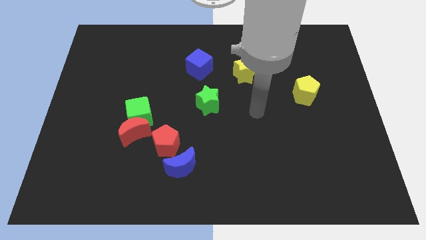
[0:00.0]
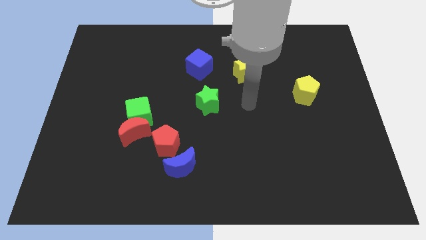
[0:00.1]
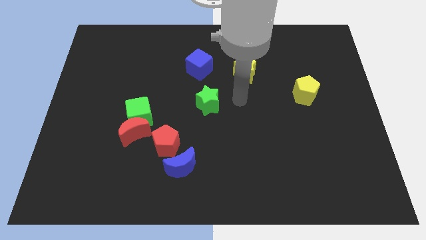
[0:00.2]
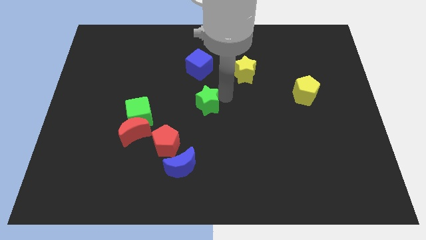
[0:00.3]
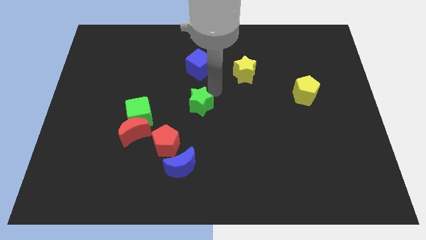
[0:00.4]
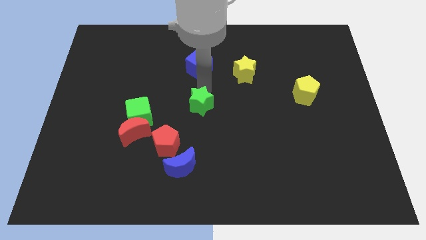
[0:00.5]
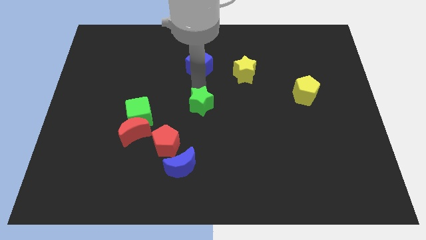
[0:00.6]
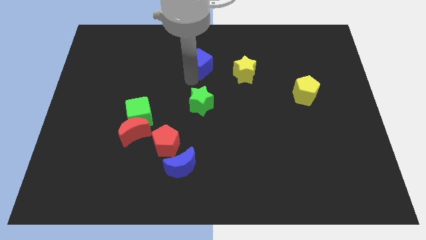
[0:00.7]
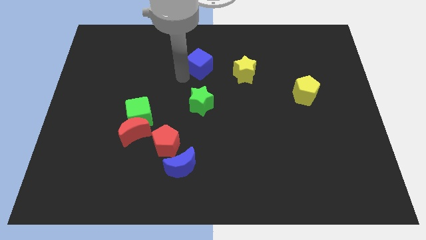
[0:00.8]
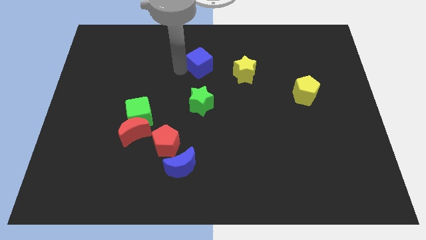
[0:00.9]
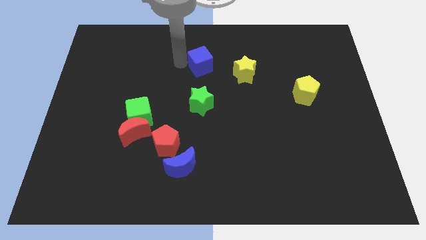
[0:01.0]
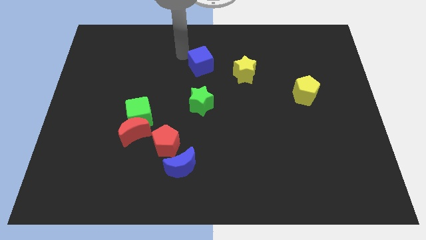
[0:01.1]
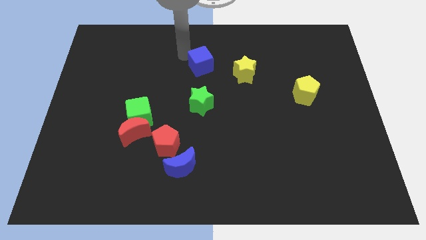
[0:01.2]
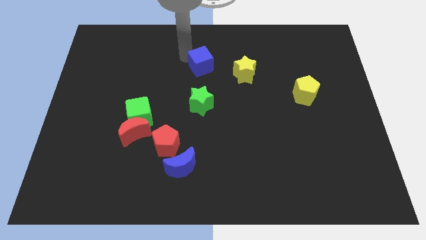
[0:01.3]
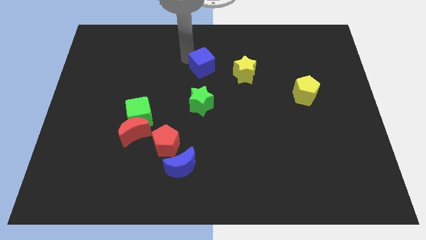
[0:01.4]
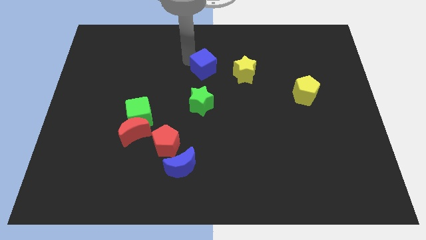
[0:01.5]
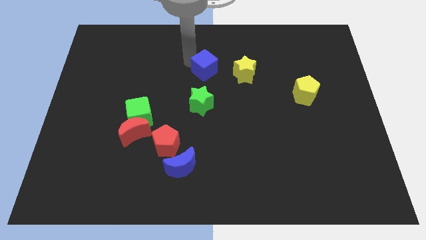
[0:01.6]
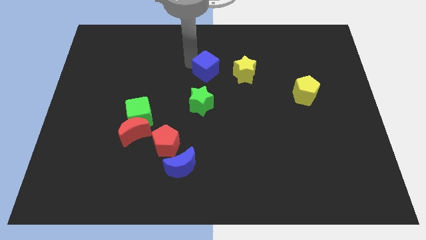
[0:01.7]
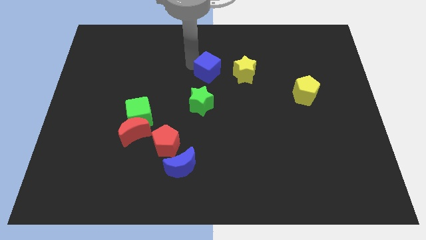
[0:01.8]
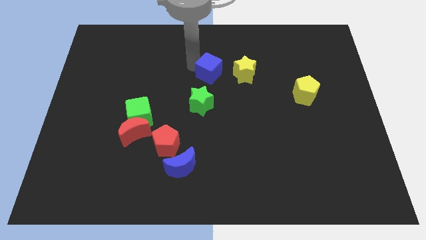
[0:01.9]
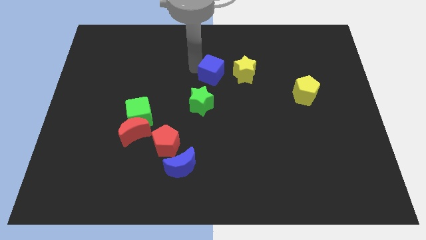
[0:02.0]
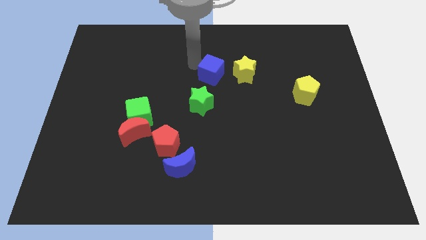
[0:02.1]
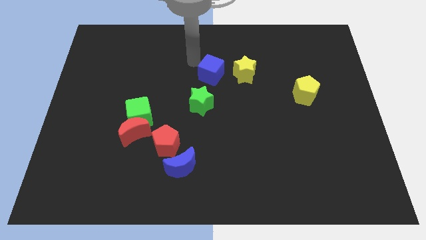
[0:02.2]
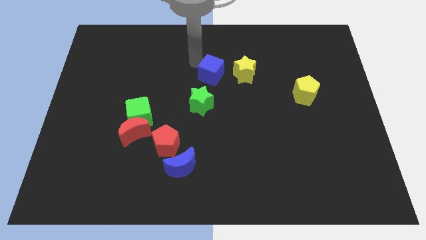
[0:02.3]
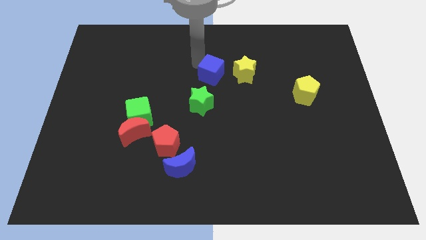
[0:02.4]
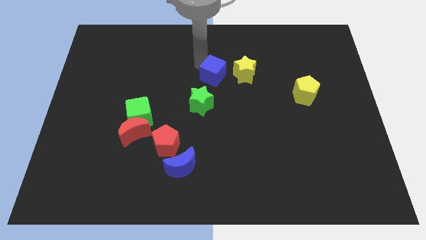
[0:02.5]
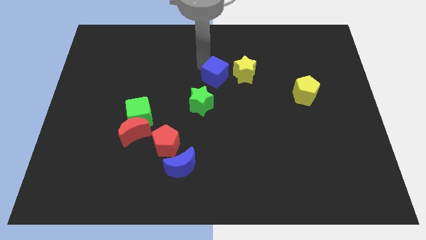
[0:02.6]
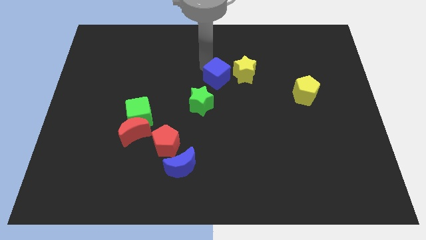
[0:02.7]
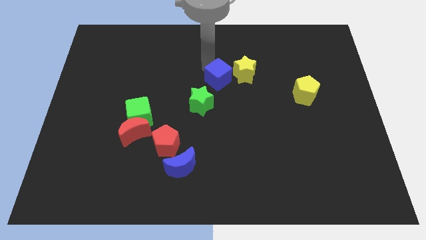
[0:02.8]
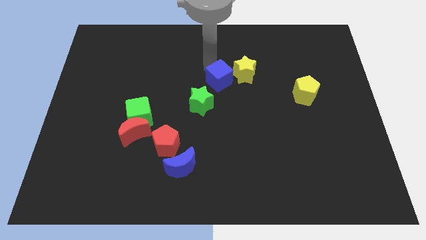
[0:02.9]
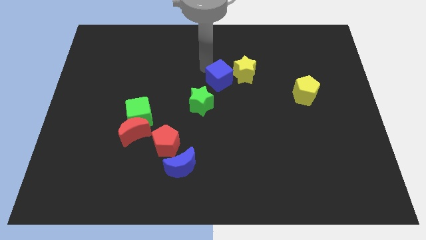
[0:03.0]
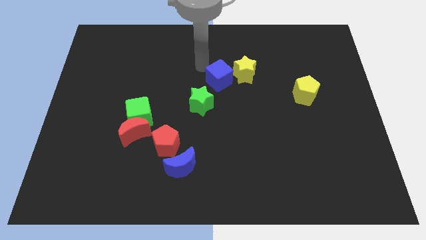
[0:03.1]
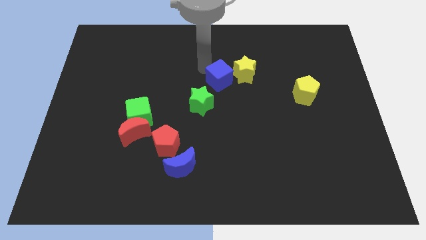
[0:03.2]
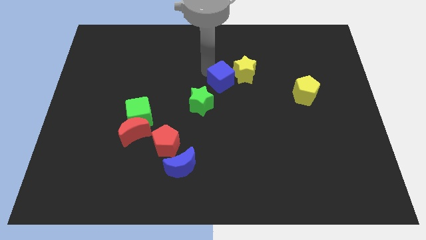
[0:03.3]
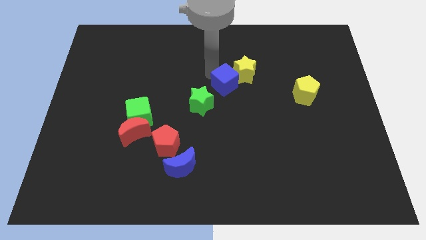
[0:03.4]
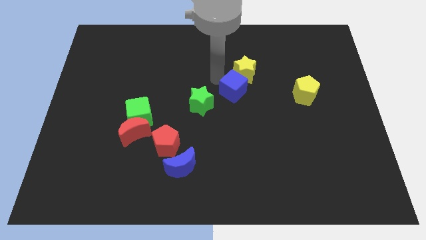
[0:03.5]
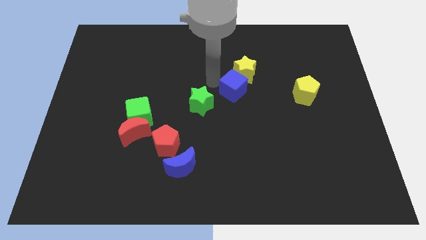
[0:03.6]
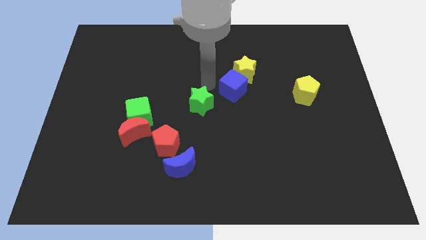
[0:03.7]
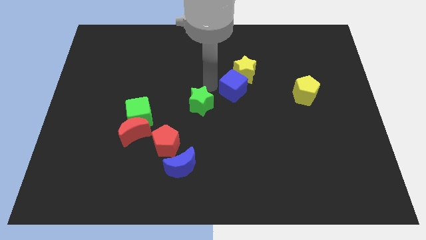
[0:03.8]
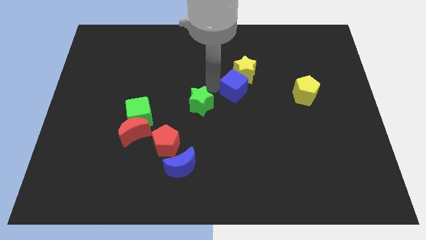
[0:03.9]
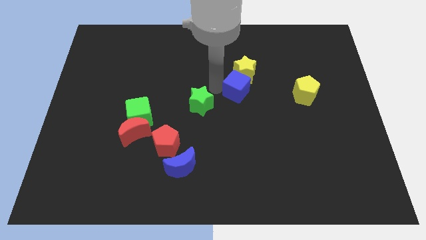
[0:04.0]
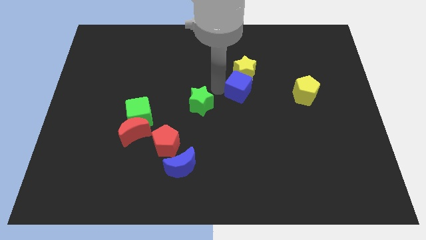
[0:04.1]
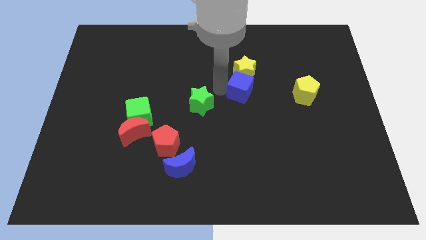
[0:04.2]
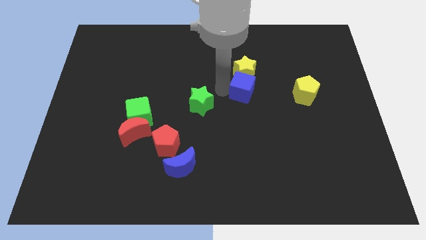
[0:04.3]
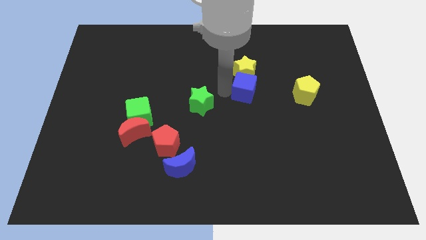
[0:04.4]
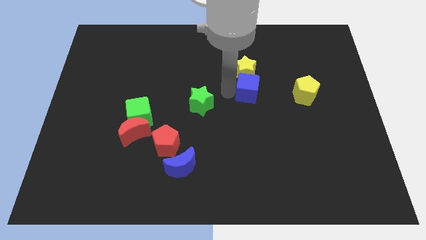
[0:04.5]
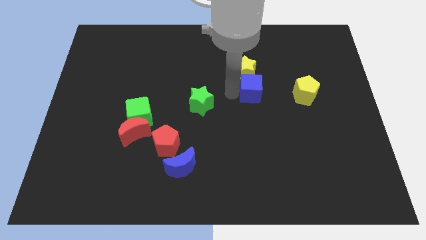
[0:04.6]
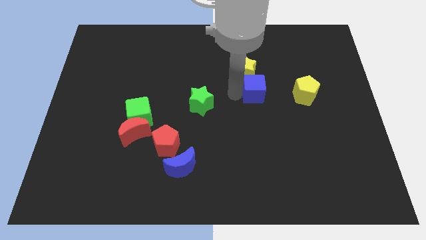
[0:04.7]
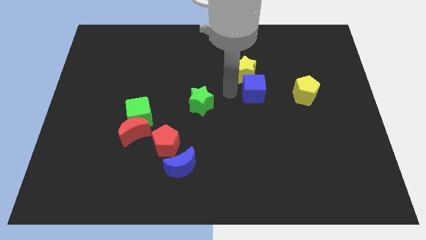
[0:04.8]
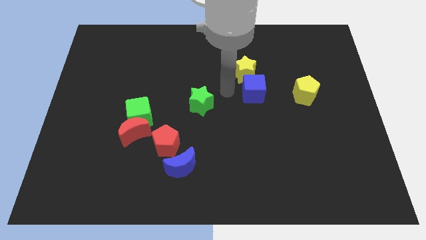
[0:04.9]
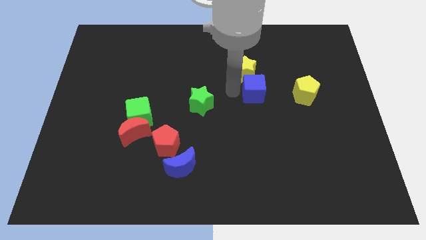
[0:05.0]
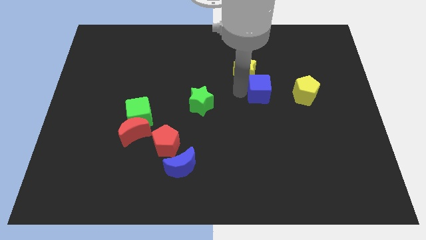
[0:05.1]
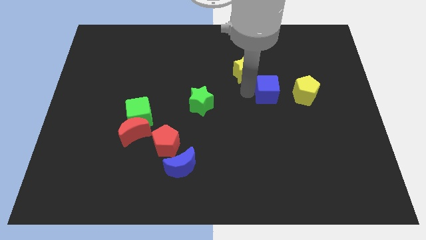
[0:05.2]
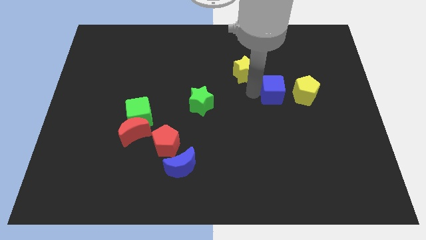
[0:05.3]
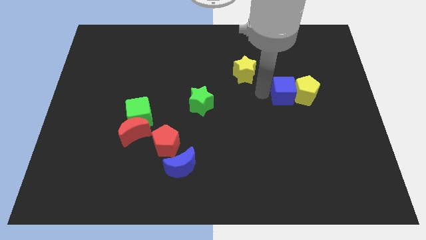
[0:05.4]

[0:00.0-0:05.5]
put the blue cube close to the yellow pentagon
